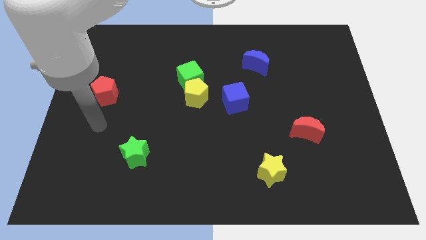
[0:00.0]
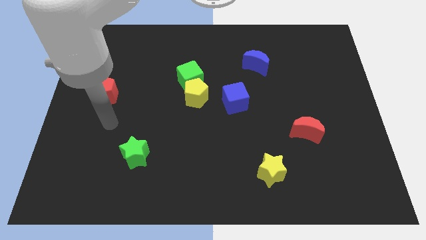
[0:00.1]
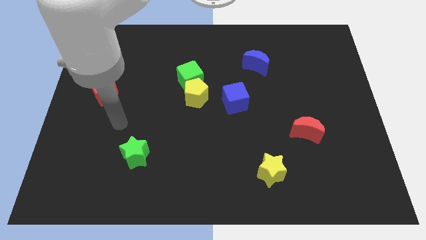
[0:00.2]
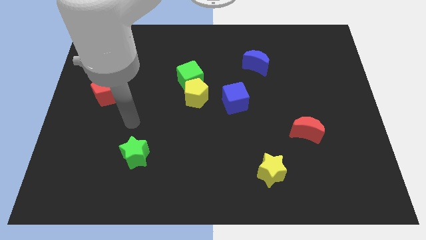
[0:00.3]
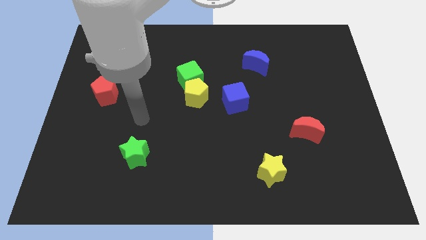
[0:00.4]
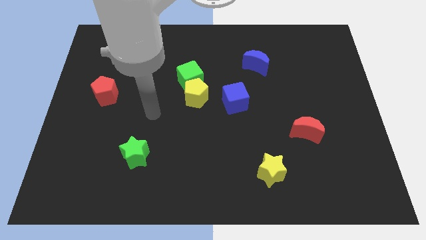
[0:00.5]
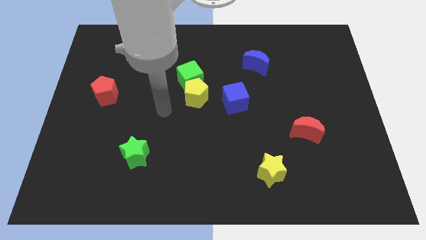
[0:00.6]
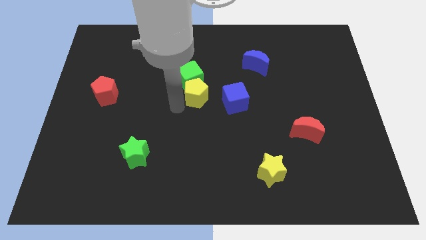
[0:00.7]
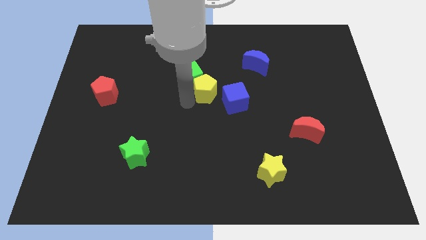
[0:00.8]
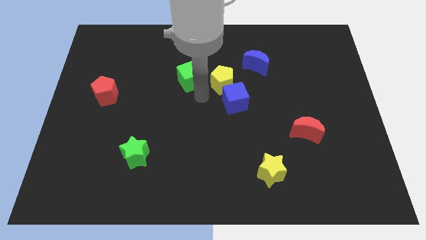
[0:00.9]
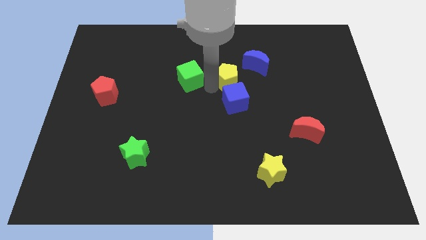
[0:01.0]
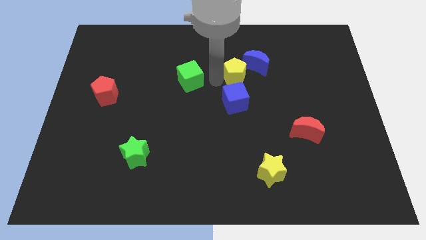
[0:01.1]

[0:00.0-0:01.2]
separate the green cube from the yellow pentagon

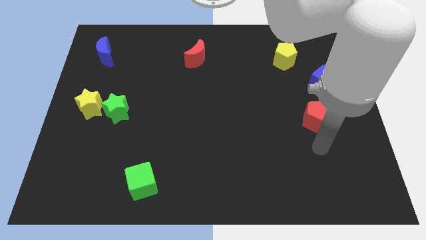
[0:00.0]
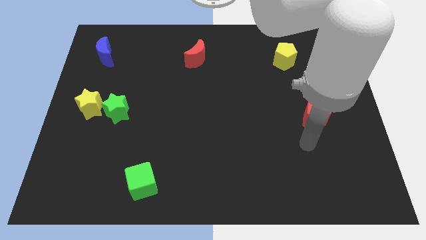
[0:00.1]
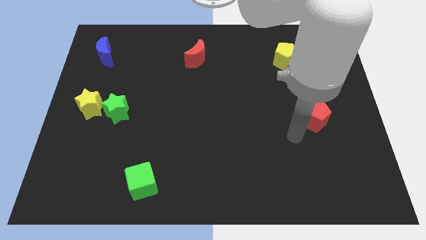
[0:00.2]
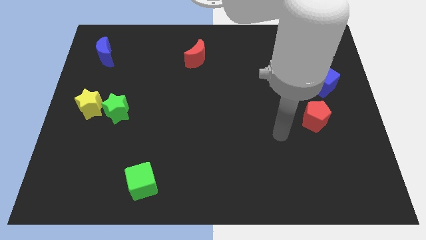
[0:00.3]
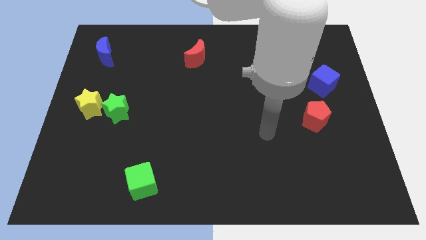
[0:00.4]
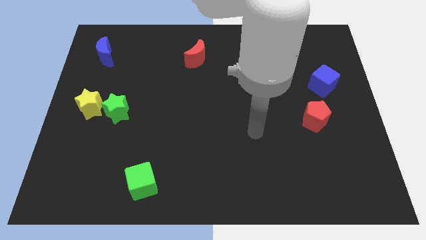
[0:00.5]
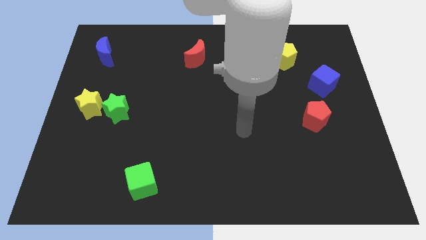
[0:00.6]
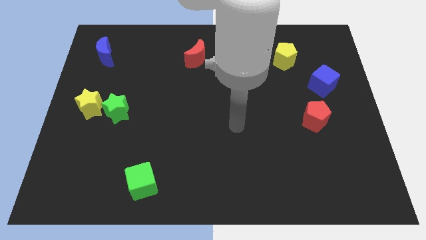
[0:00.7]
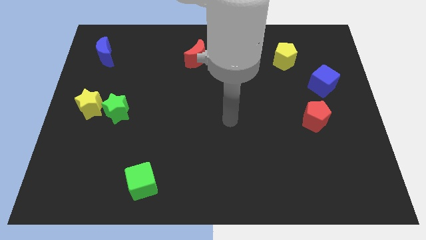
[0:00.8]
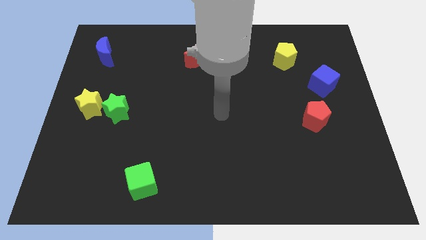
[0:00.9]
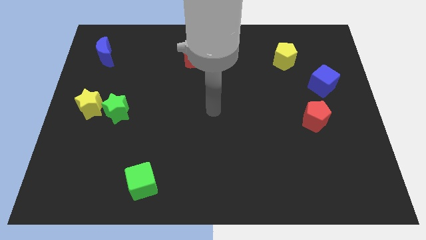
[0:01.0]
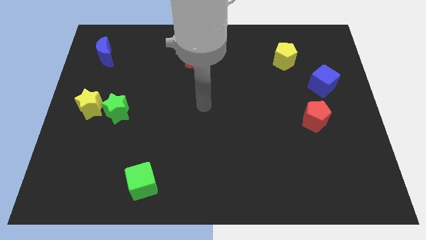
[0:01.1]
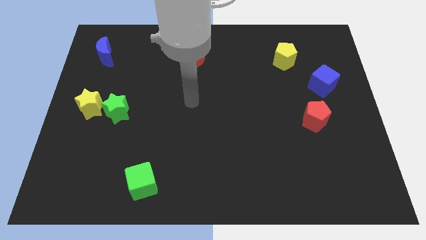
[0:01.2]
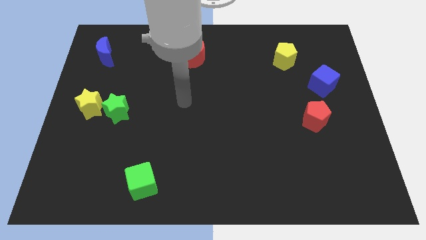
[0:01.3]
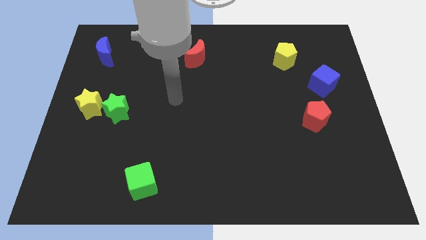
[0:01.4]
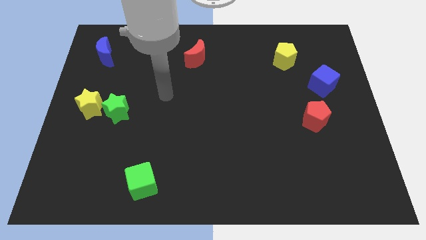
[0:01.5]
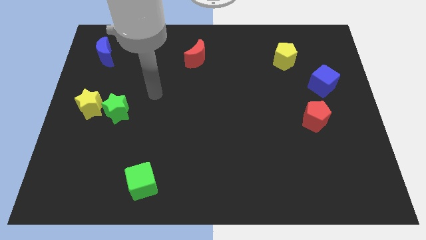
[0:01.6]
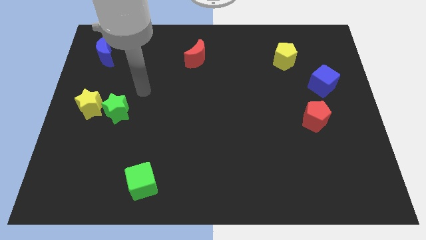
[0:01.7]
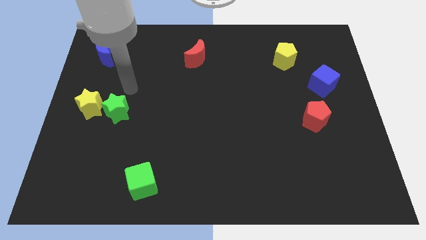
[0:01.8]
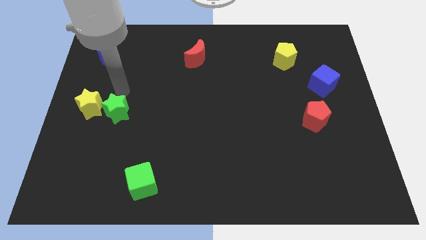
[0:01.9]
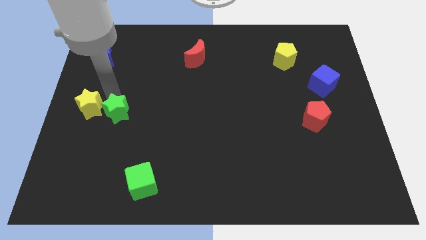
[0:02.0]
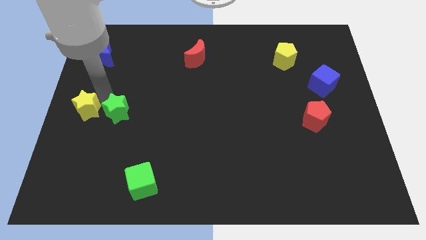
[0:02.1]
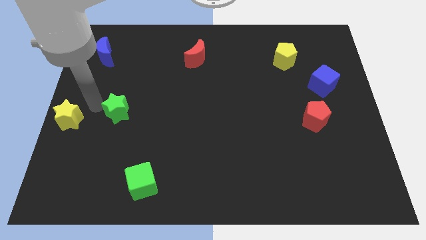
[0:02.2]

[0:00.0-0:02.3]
separate the green star from the yellow star

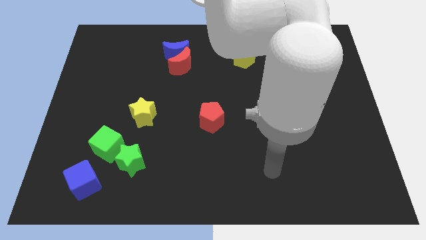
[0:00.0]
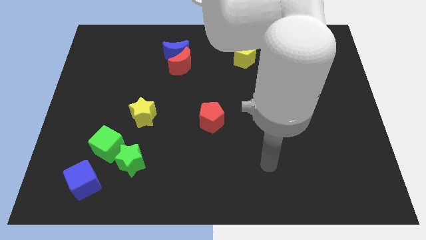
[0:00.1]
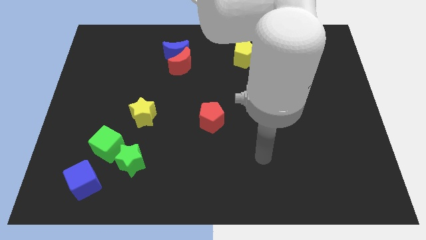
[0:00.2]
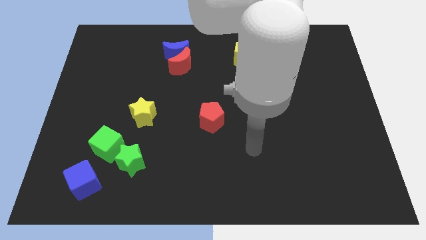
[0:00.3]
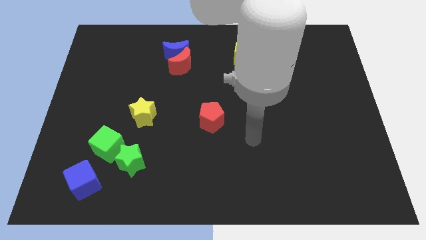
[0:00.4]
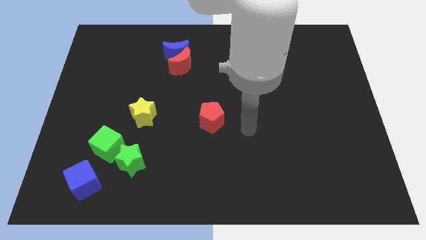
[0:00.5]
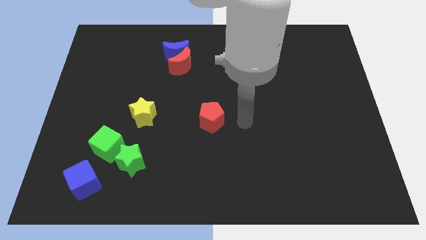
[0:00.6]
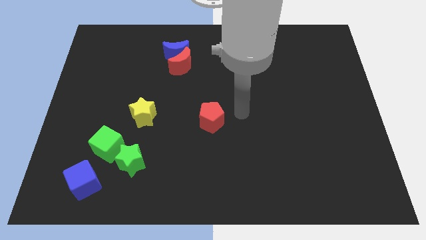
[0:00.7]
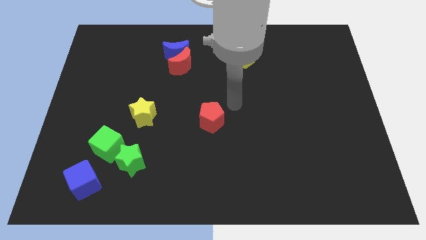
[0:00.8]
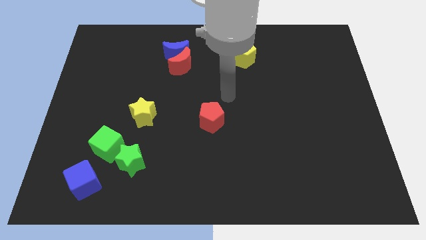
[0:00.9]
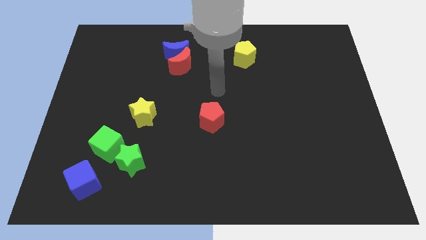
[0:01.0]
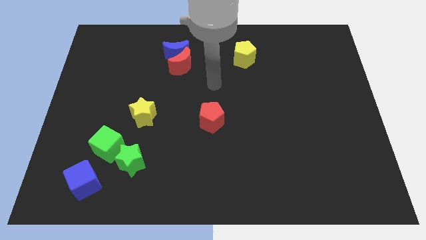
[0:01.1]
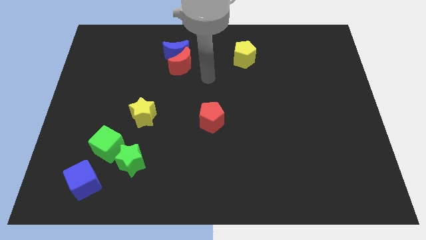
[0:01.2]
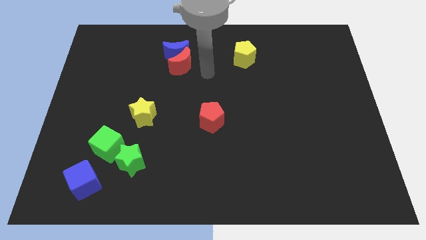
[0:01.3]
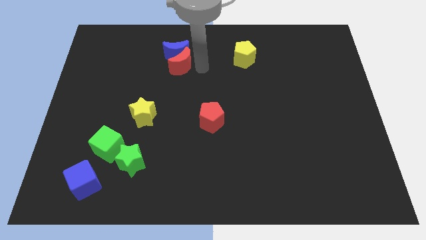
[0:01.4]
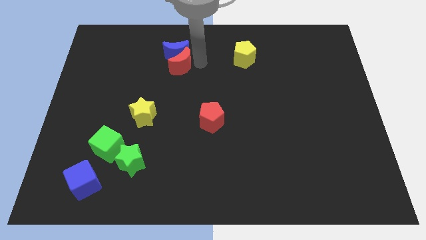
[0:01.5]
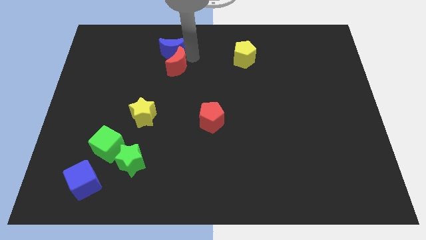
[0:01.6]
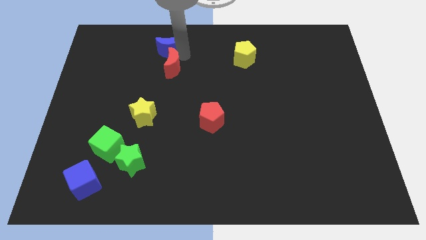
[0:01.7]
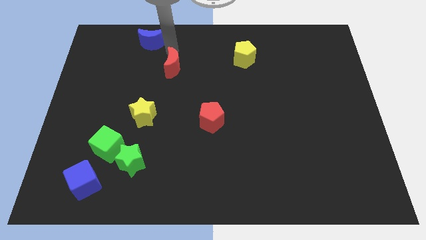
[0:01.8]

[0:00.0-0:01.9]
move the red moon away from the blue moon

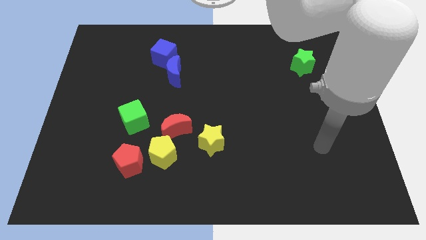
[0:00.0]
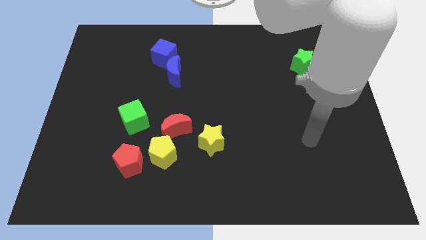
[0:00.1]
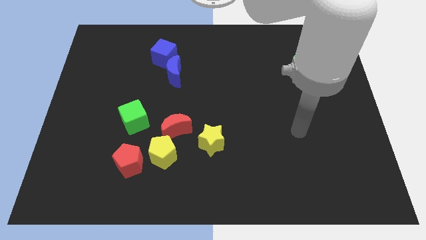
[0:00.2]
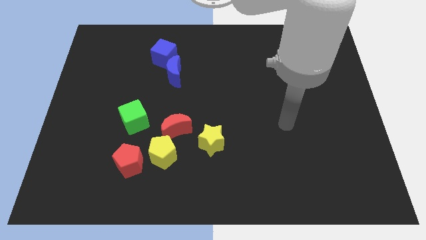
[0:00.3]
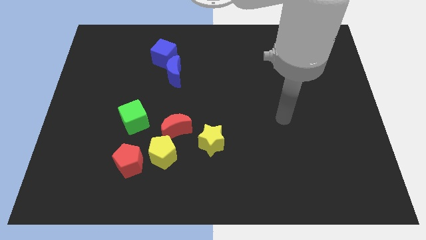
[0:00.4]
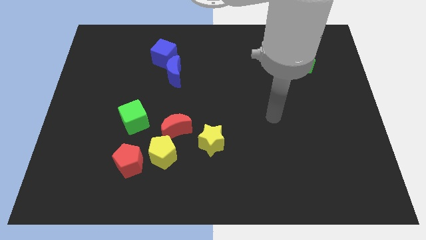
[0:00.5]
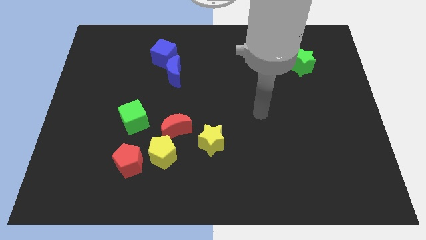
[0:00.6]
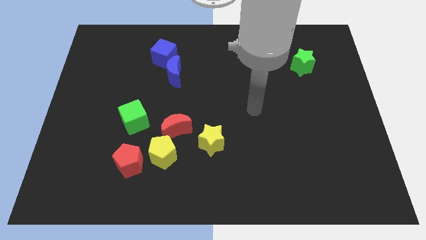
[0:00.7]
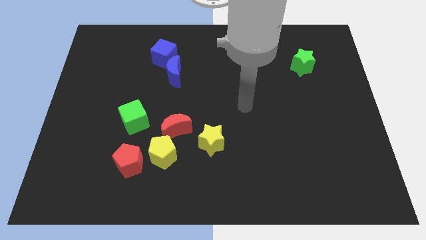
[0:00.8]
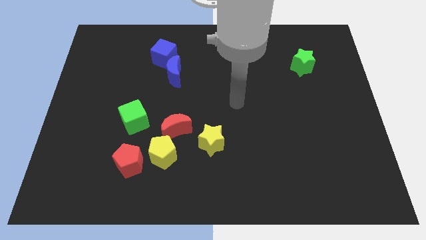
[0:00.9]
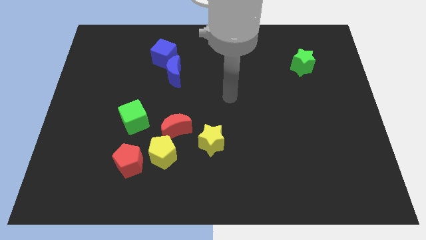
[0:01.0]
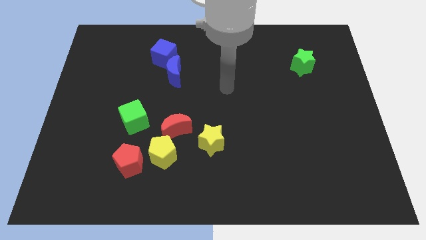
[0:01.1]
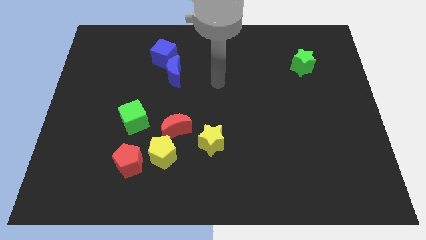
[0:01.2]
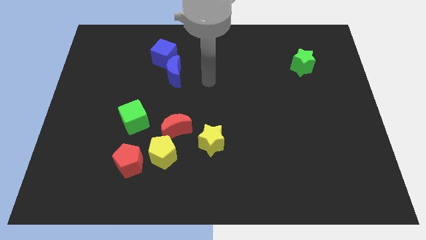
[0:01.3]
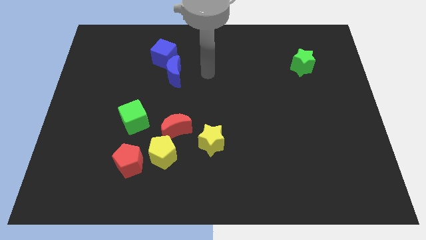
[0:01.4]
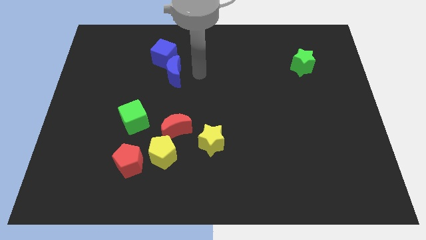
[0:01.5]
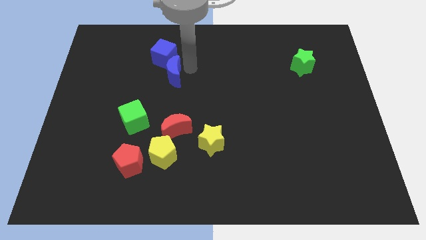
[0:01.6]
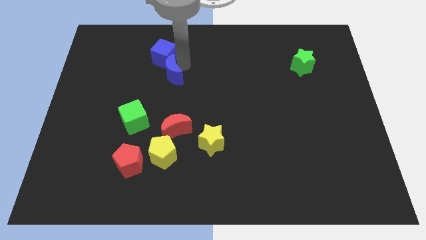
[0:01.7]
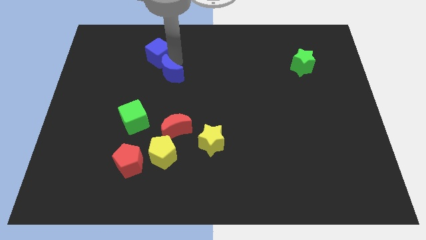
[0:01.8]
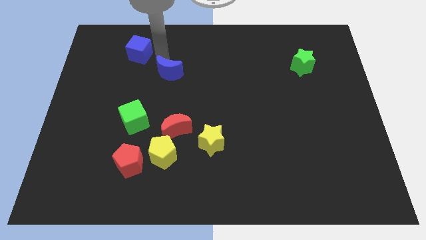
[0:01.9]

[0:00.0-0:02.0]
separate the blue moon from the blue cube

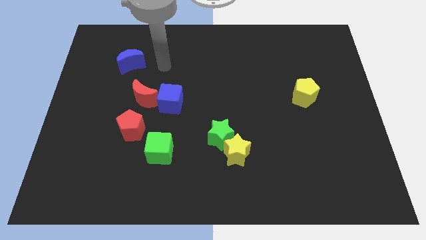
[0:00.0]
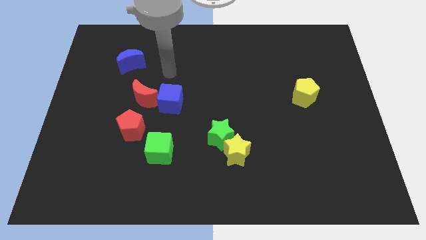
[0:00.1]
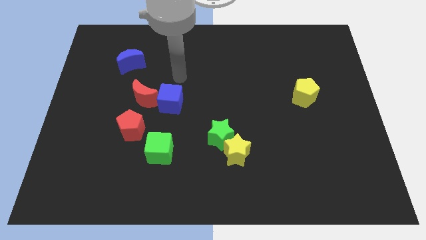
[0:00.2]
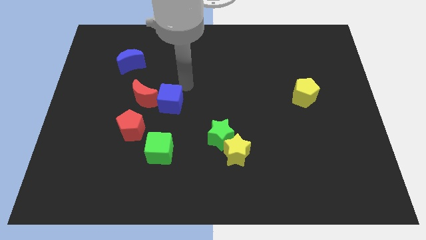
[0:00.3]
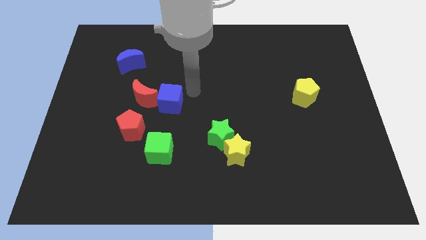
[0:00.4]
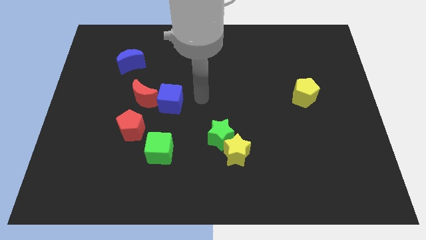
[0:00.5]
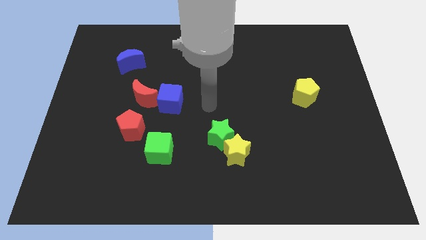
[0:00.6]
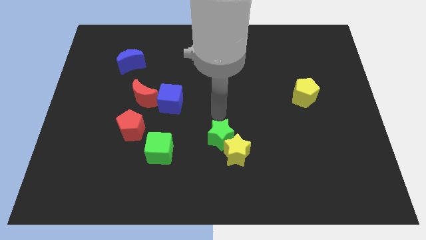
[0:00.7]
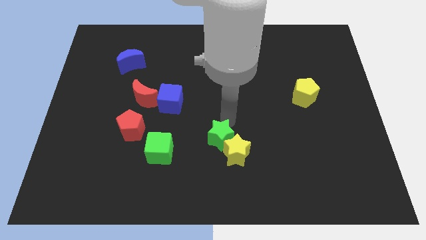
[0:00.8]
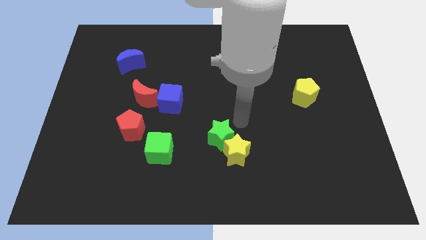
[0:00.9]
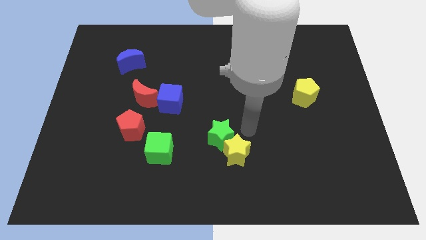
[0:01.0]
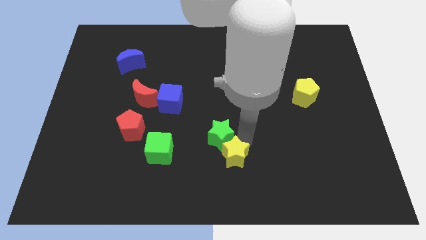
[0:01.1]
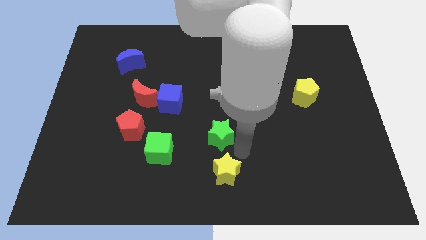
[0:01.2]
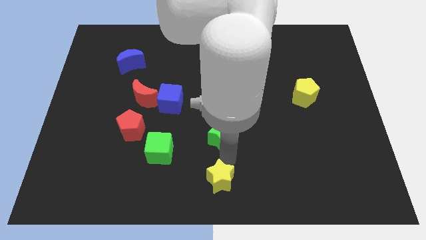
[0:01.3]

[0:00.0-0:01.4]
pull the green star apart from the yellow star

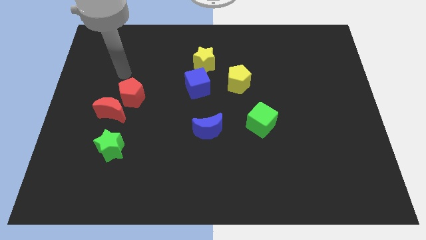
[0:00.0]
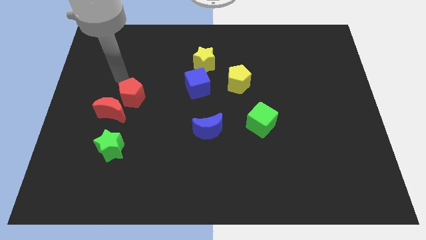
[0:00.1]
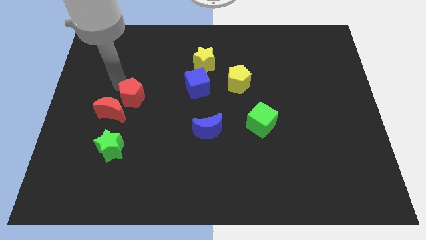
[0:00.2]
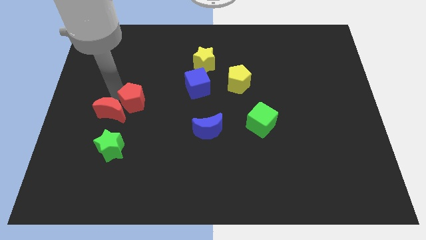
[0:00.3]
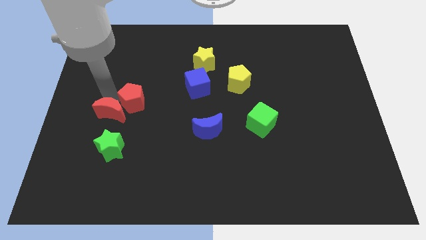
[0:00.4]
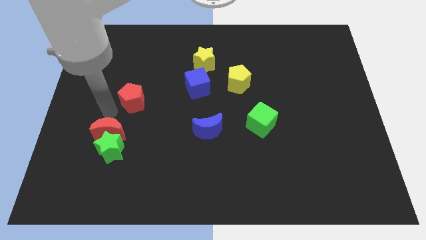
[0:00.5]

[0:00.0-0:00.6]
separate the red pentagon from the red moon
